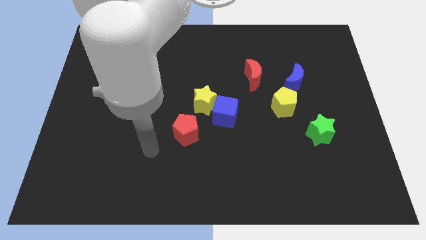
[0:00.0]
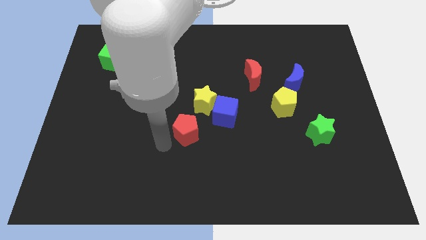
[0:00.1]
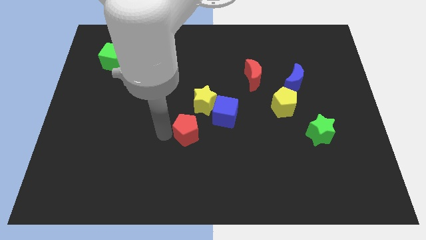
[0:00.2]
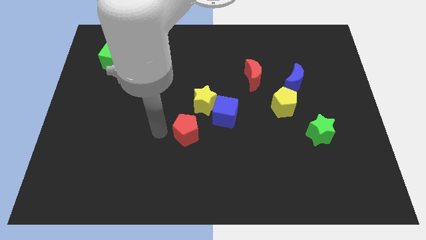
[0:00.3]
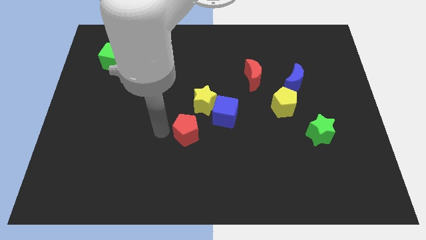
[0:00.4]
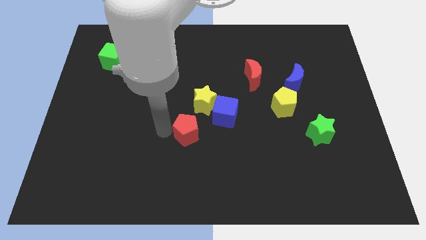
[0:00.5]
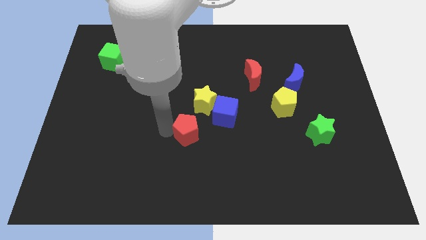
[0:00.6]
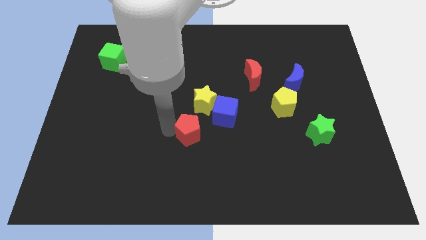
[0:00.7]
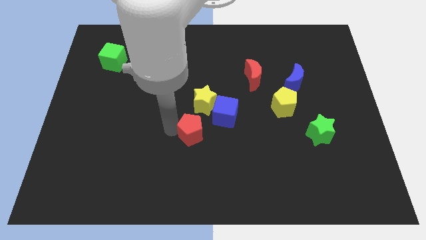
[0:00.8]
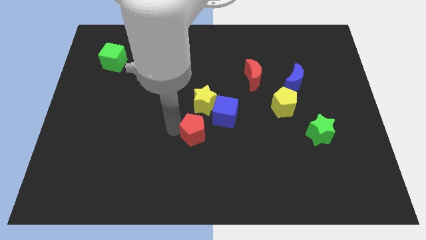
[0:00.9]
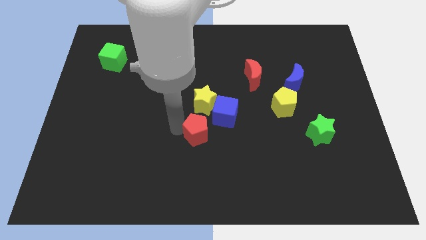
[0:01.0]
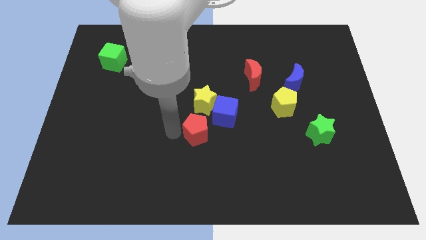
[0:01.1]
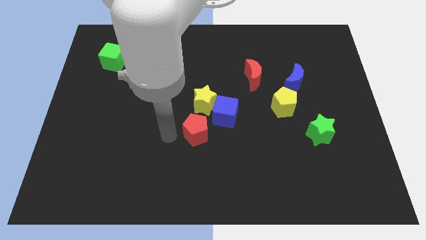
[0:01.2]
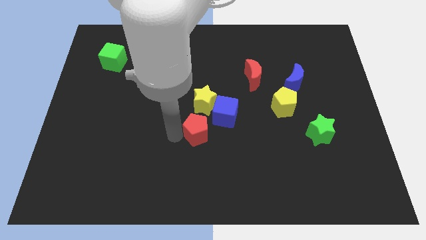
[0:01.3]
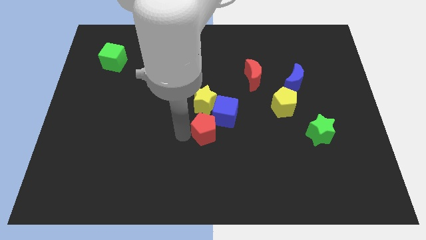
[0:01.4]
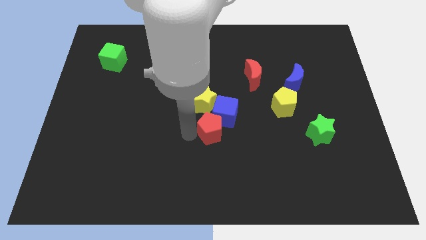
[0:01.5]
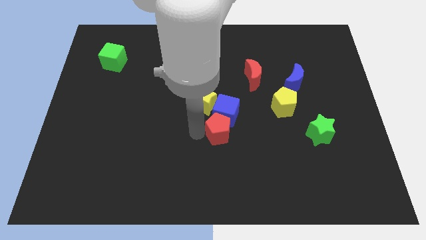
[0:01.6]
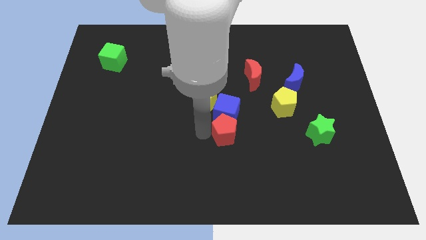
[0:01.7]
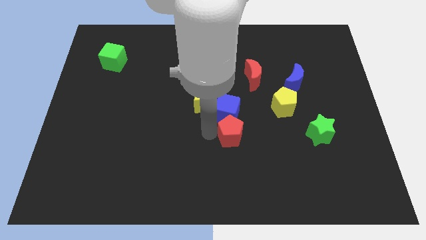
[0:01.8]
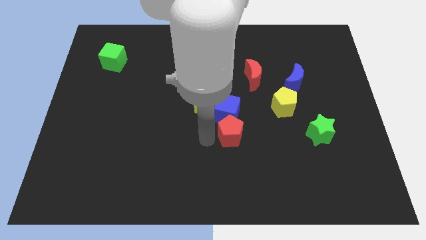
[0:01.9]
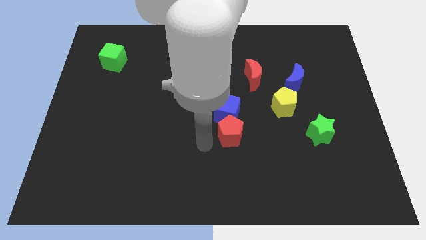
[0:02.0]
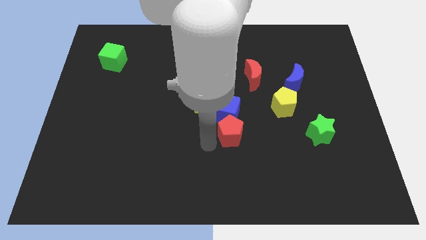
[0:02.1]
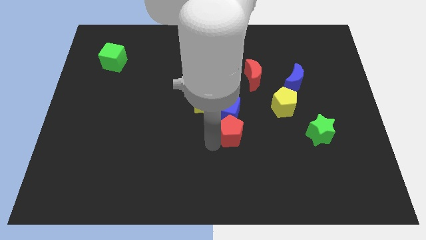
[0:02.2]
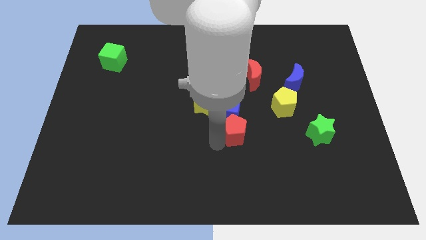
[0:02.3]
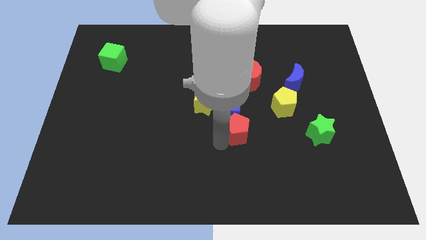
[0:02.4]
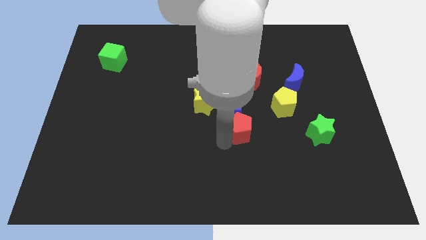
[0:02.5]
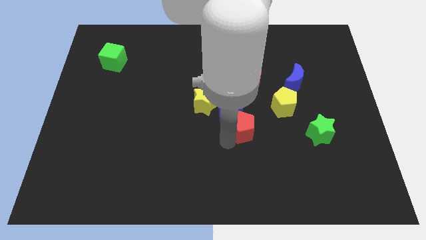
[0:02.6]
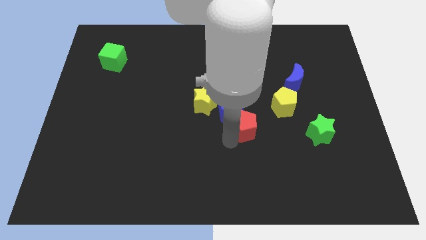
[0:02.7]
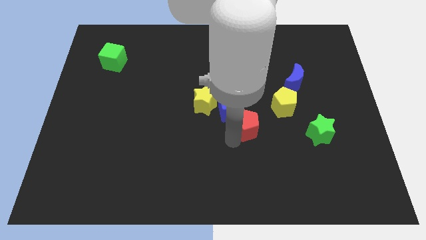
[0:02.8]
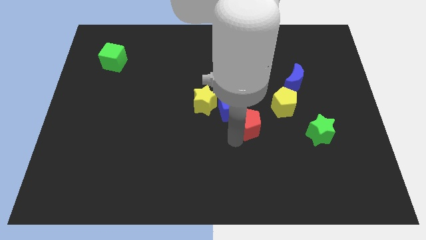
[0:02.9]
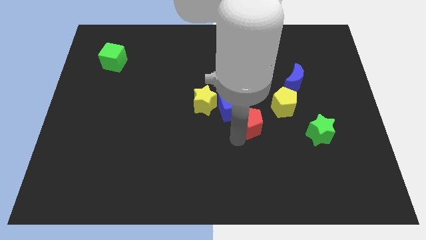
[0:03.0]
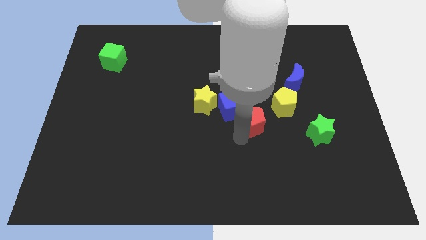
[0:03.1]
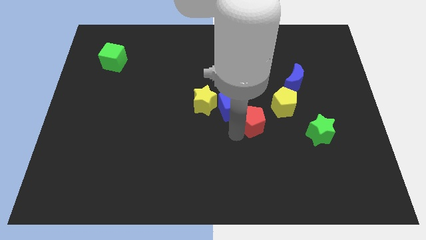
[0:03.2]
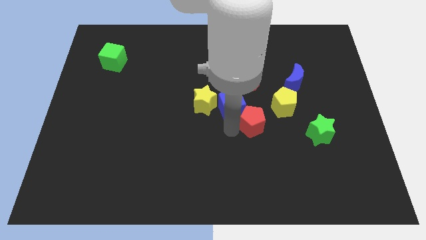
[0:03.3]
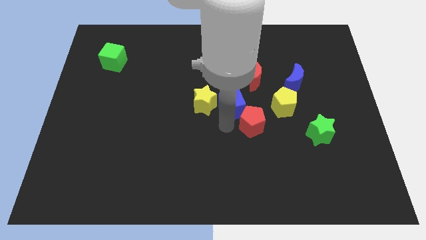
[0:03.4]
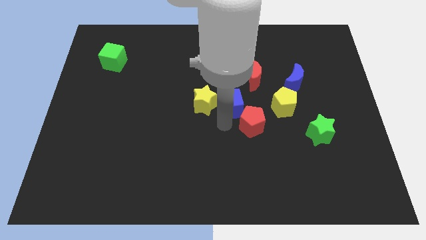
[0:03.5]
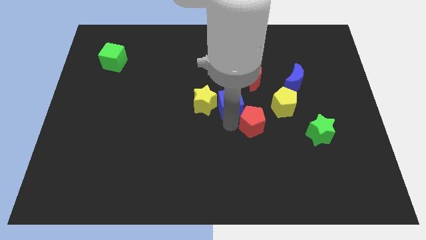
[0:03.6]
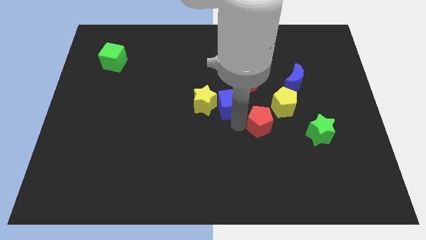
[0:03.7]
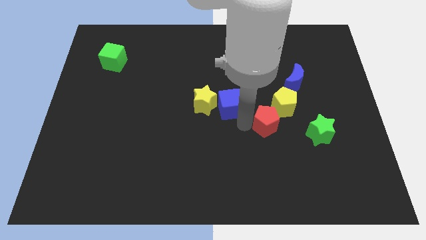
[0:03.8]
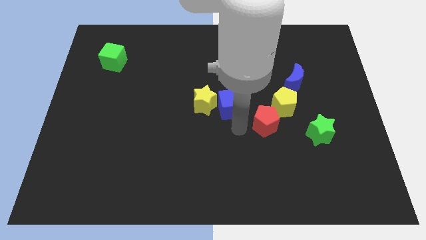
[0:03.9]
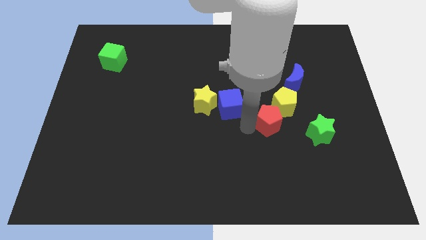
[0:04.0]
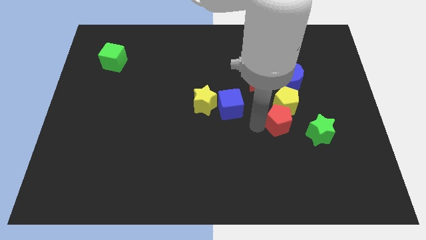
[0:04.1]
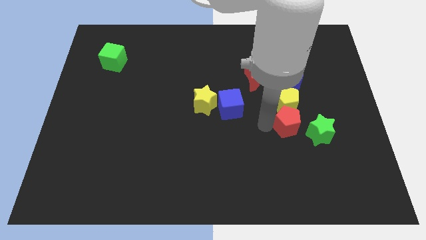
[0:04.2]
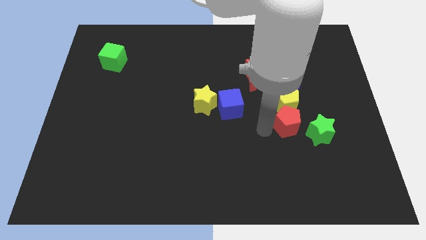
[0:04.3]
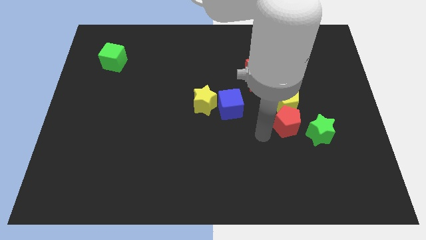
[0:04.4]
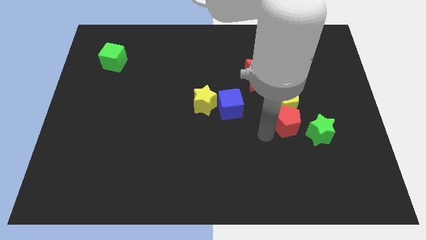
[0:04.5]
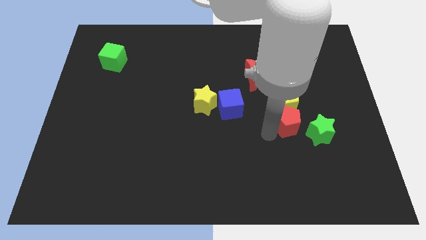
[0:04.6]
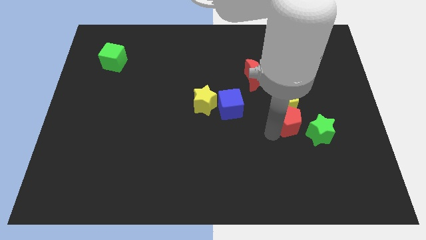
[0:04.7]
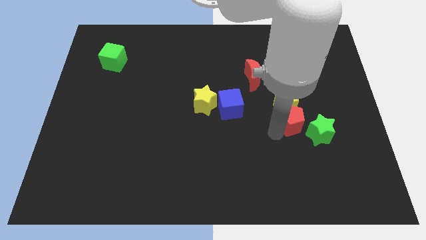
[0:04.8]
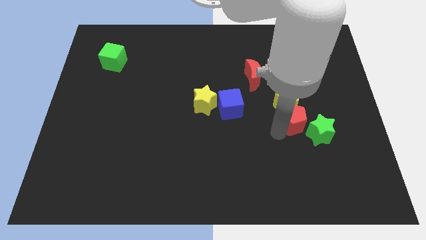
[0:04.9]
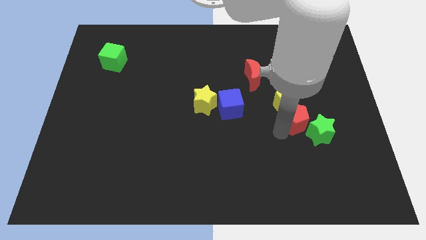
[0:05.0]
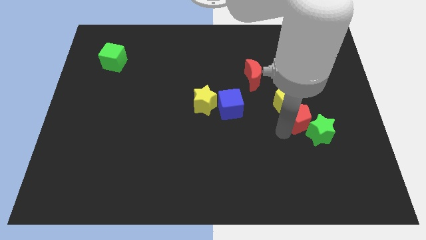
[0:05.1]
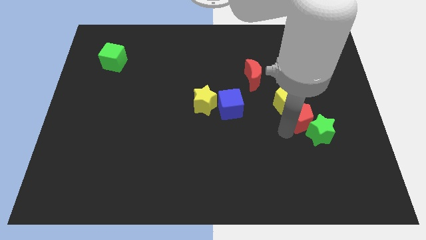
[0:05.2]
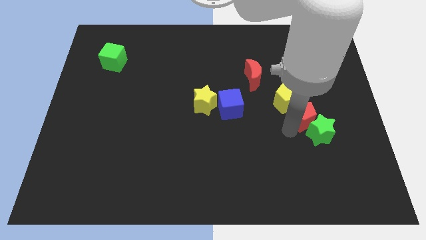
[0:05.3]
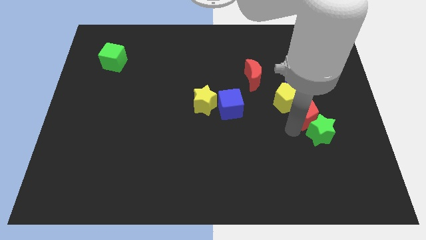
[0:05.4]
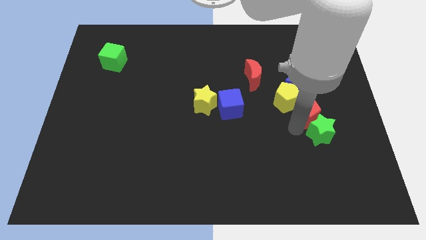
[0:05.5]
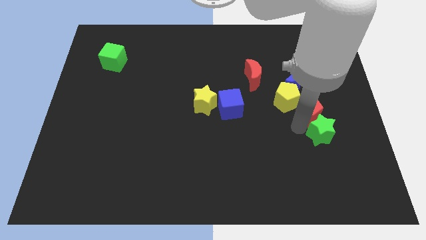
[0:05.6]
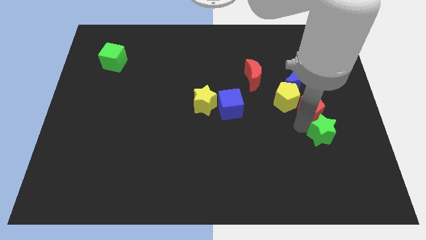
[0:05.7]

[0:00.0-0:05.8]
push the red pentagon to the bottom right side of the blue moon

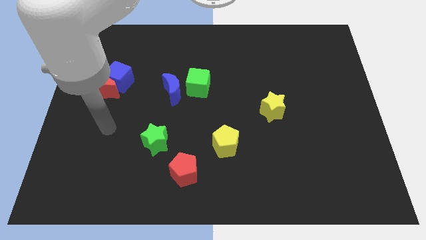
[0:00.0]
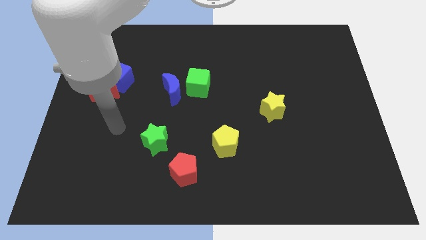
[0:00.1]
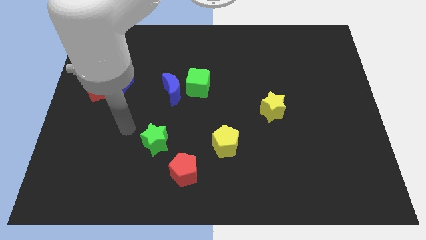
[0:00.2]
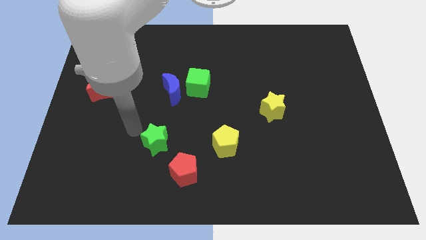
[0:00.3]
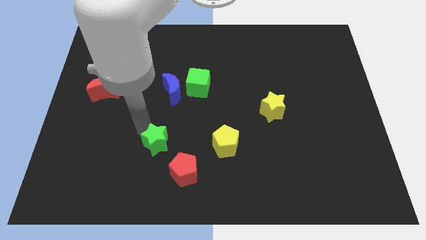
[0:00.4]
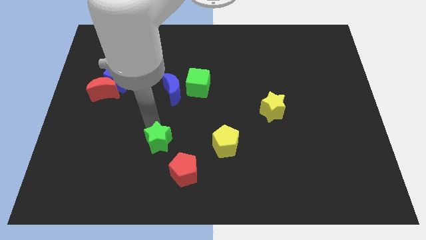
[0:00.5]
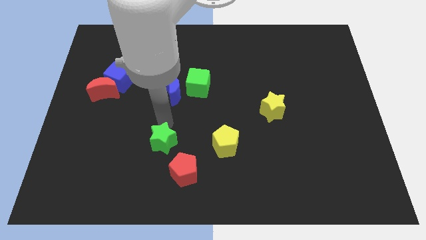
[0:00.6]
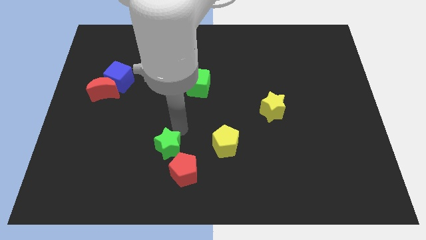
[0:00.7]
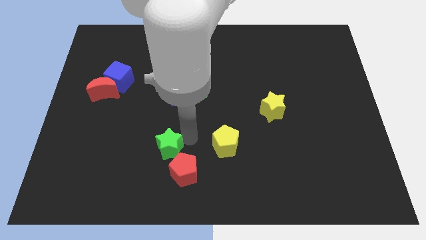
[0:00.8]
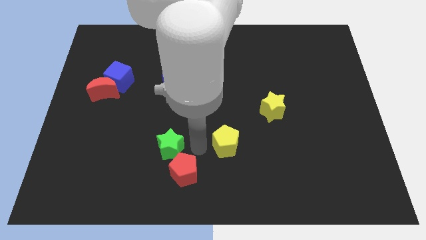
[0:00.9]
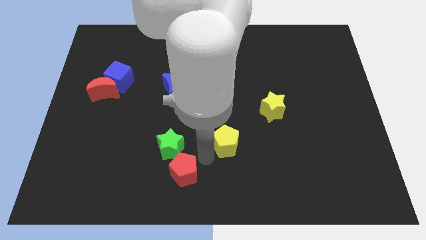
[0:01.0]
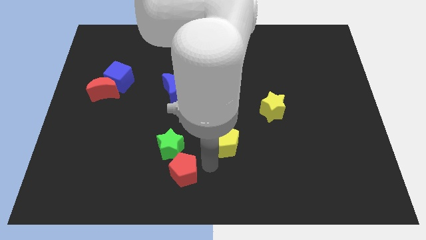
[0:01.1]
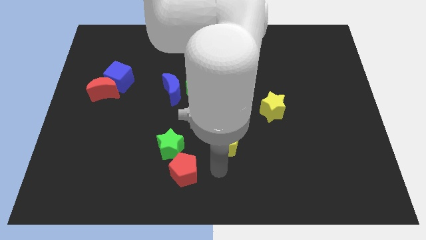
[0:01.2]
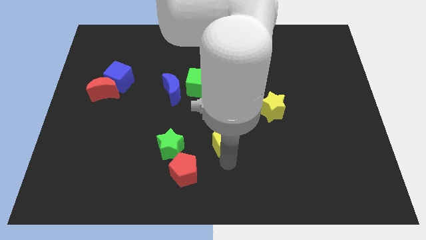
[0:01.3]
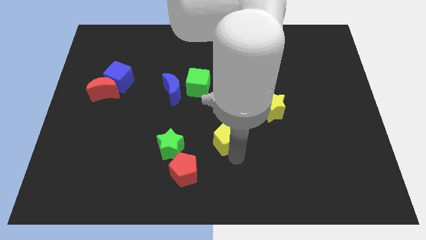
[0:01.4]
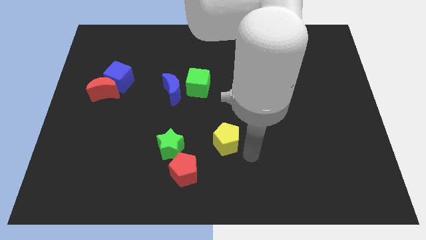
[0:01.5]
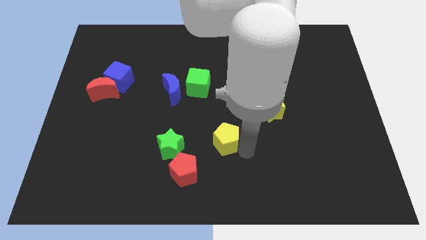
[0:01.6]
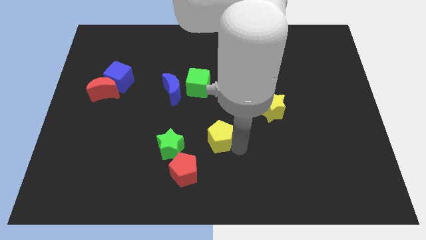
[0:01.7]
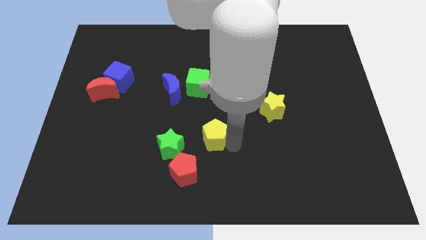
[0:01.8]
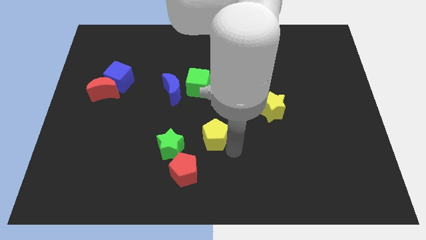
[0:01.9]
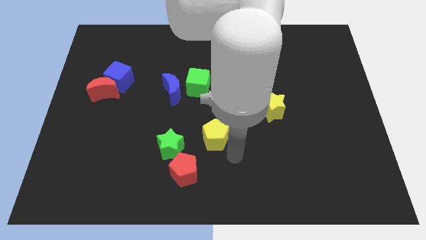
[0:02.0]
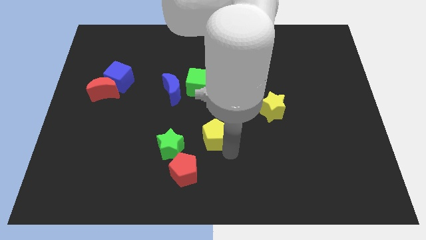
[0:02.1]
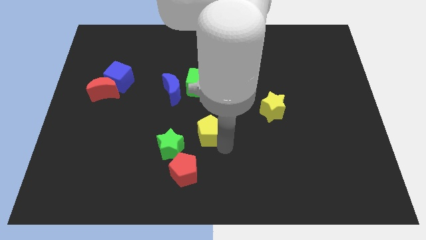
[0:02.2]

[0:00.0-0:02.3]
move the yellow pentagon below the green cube
